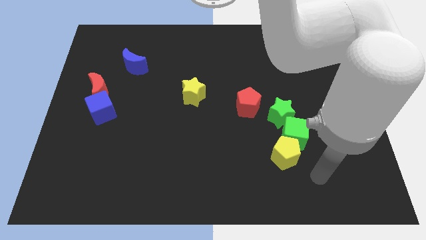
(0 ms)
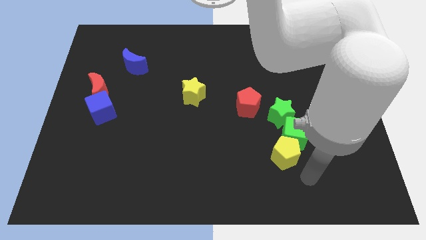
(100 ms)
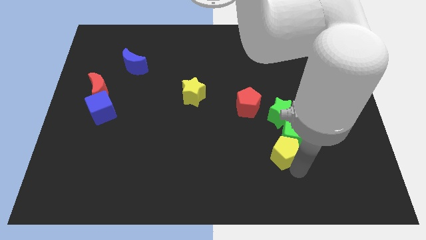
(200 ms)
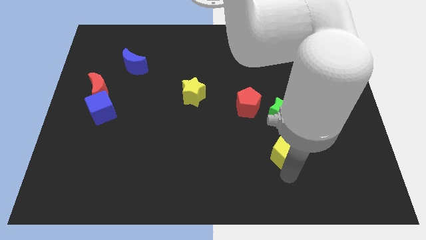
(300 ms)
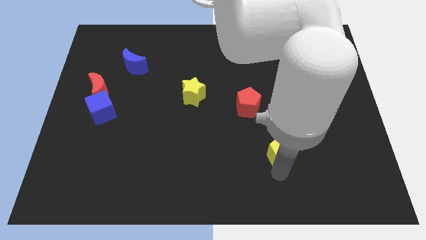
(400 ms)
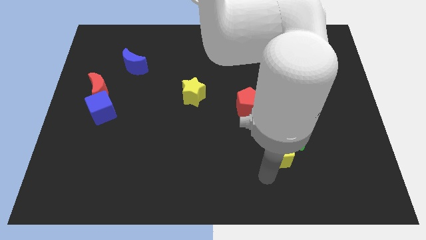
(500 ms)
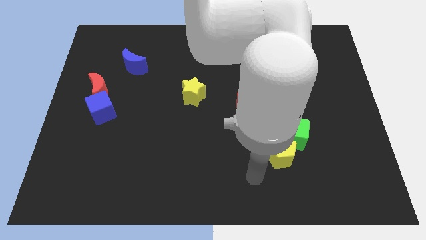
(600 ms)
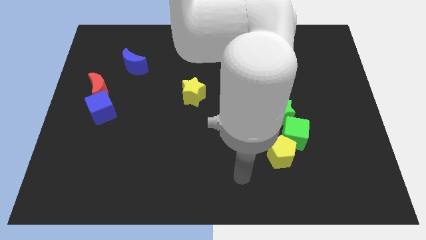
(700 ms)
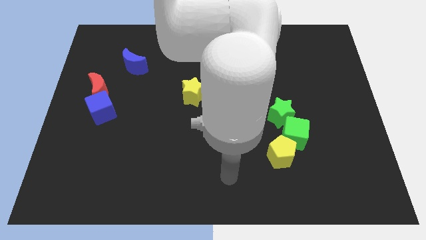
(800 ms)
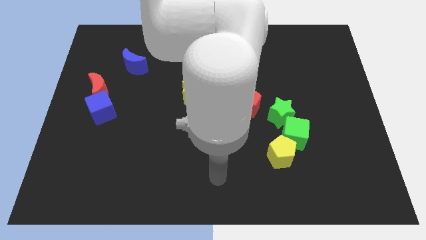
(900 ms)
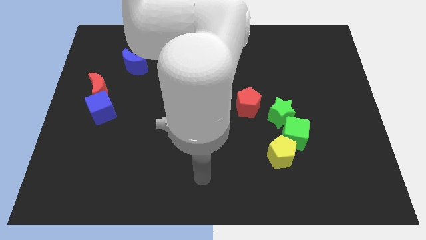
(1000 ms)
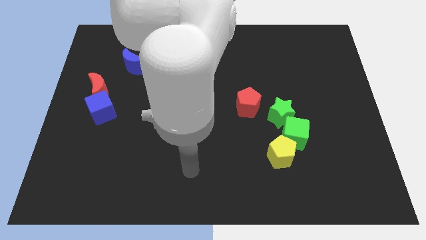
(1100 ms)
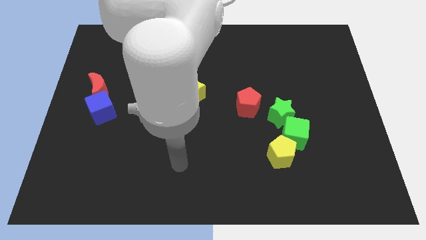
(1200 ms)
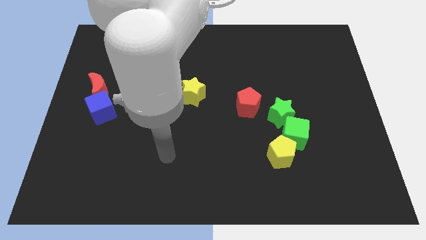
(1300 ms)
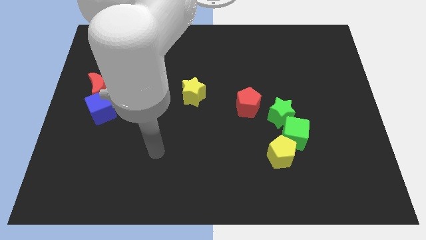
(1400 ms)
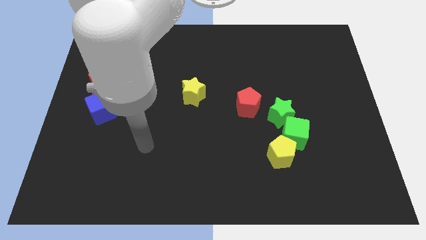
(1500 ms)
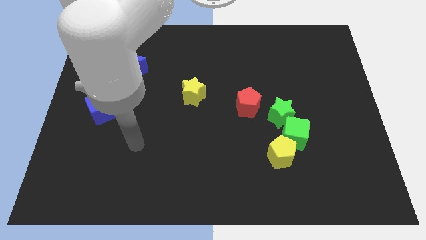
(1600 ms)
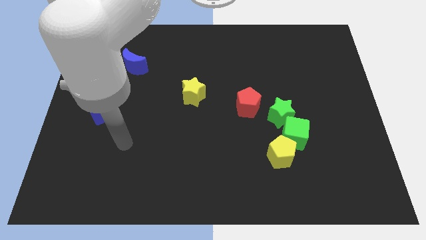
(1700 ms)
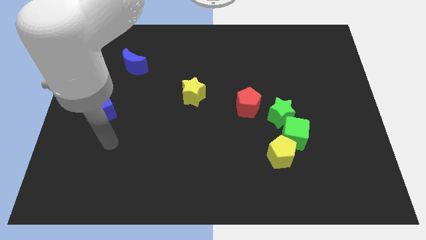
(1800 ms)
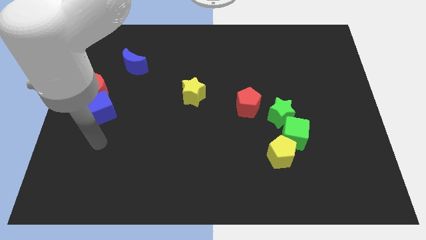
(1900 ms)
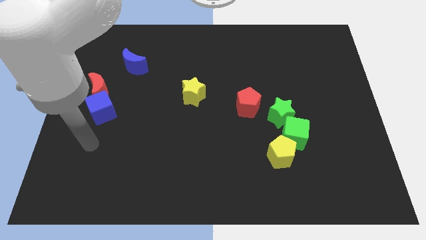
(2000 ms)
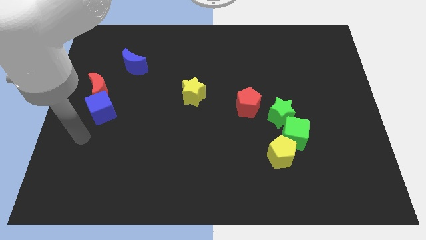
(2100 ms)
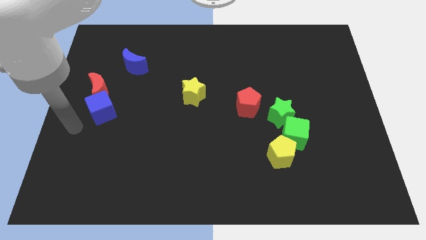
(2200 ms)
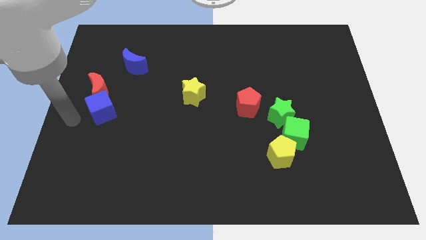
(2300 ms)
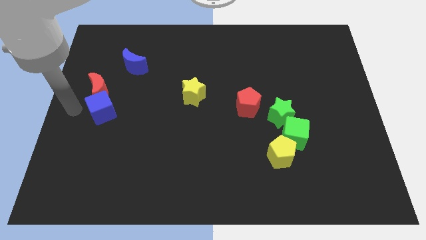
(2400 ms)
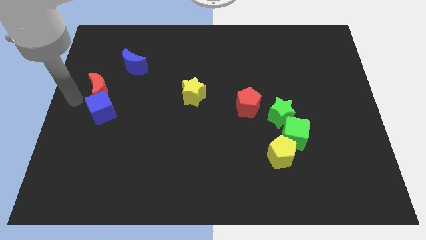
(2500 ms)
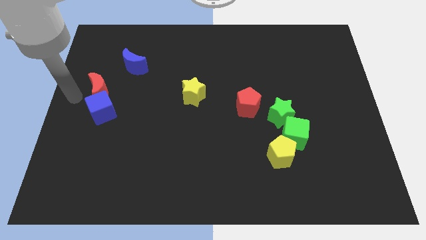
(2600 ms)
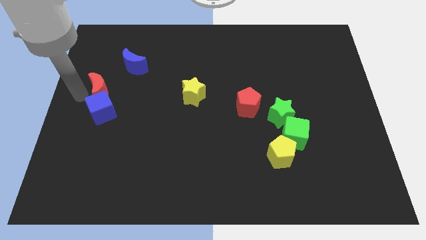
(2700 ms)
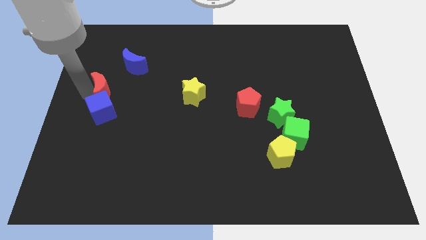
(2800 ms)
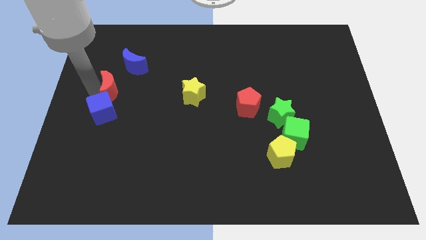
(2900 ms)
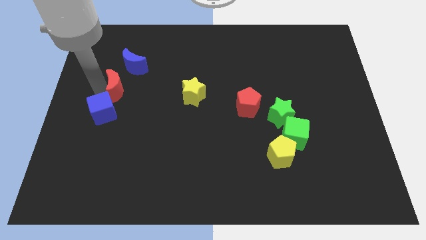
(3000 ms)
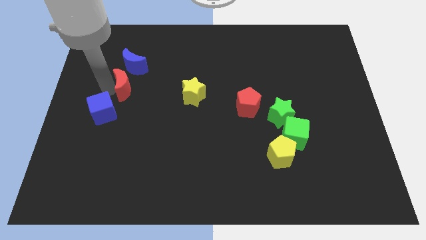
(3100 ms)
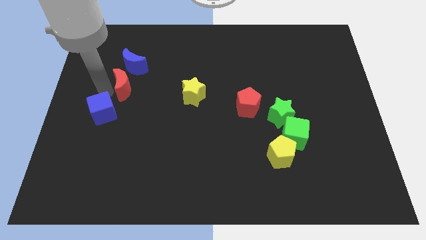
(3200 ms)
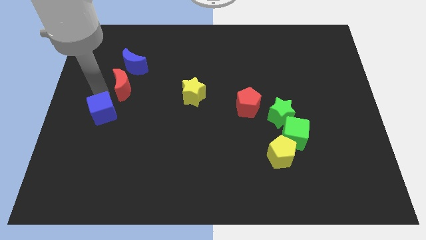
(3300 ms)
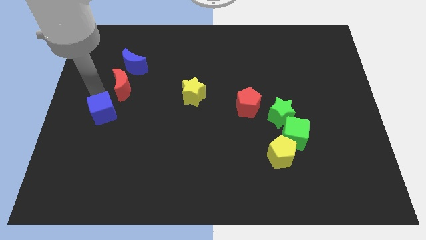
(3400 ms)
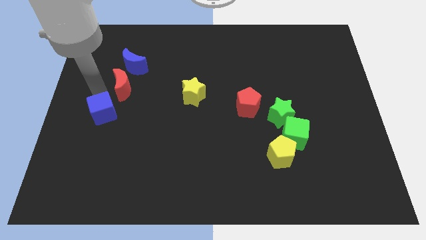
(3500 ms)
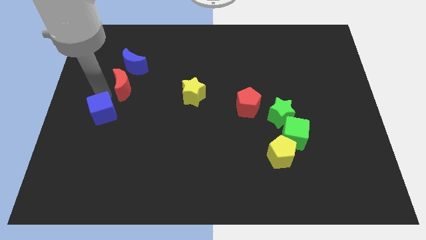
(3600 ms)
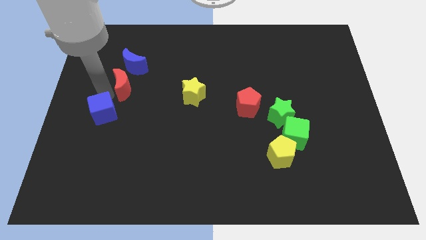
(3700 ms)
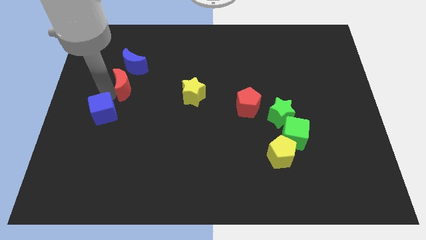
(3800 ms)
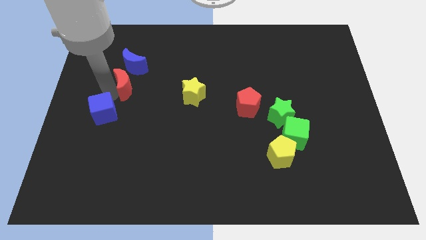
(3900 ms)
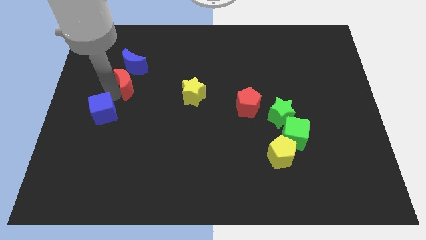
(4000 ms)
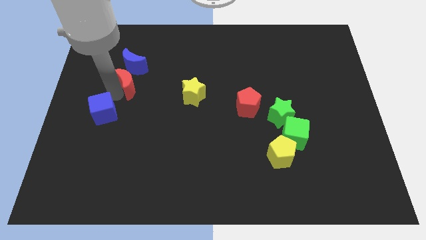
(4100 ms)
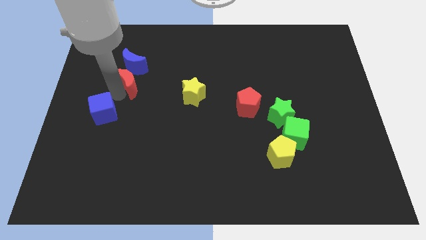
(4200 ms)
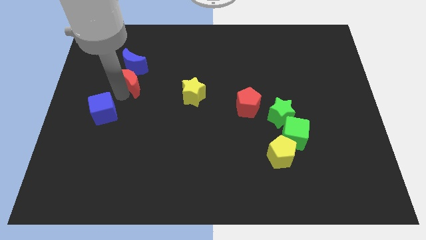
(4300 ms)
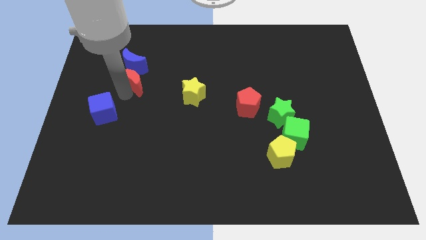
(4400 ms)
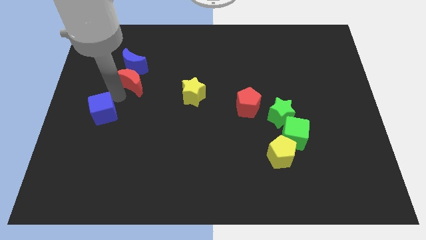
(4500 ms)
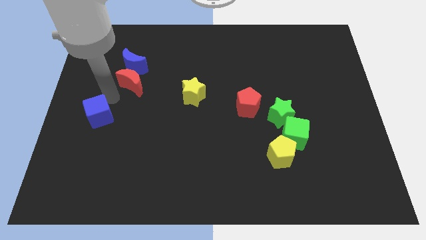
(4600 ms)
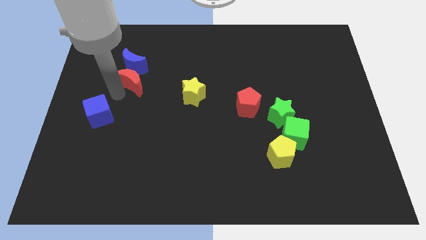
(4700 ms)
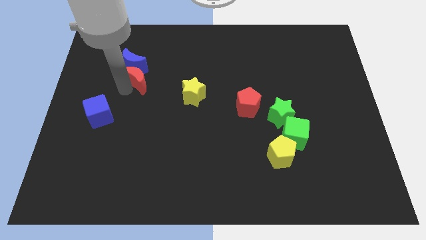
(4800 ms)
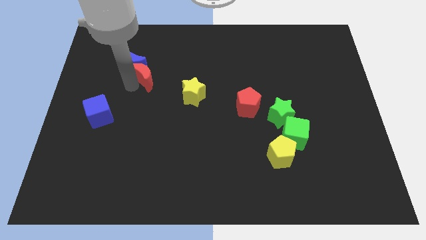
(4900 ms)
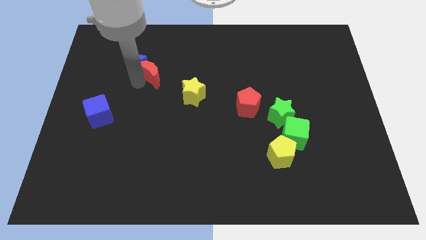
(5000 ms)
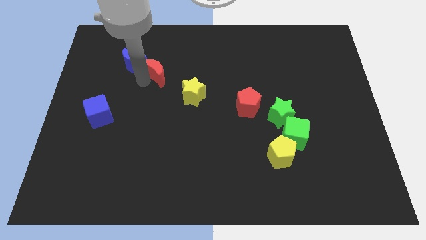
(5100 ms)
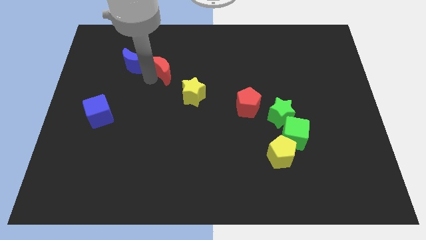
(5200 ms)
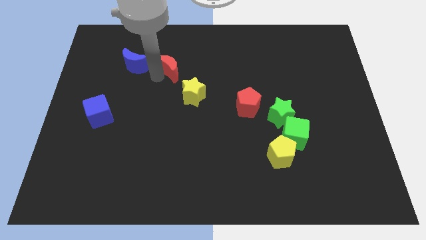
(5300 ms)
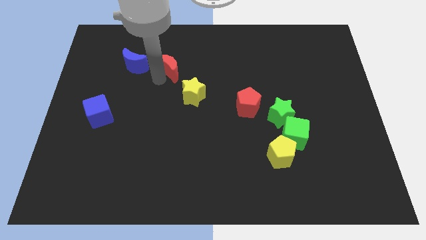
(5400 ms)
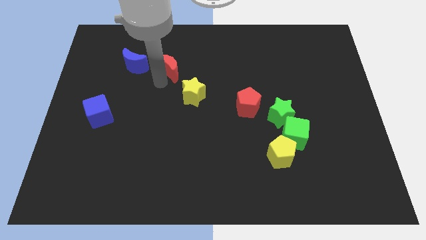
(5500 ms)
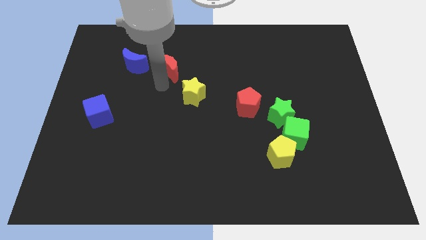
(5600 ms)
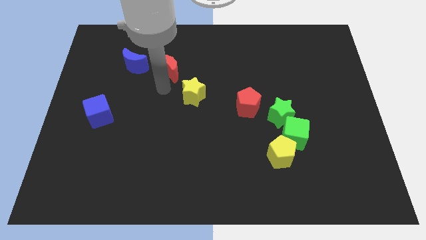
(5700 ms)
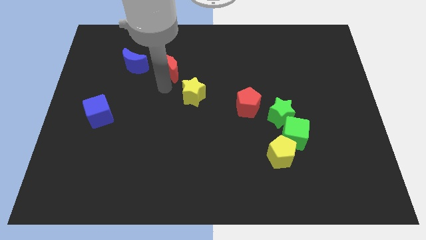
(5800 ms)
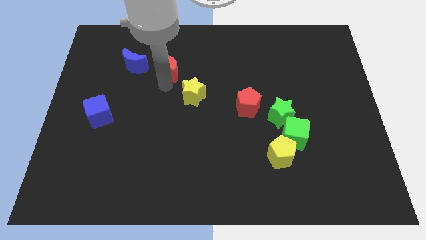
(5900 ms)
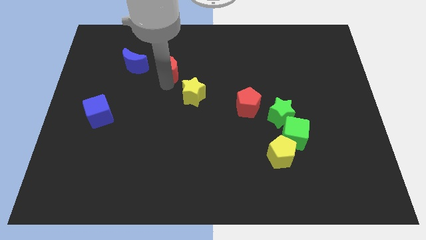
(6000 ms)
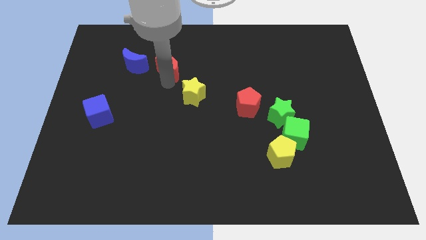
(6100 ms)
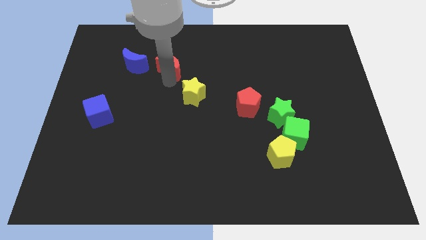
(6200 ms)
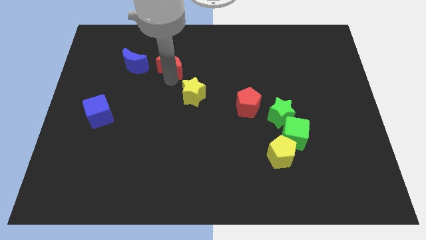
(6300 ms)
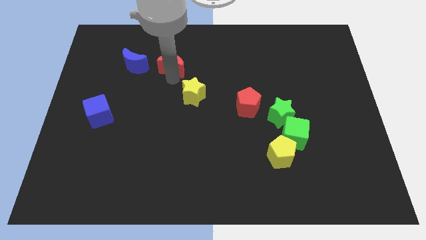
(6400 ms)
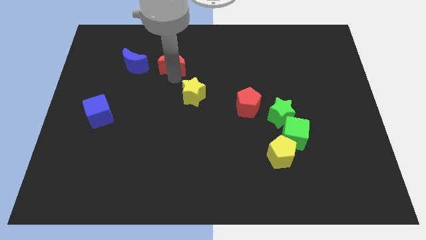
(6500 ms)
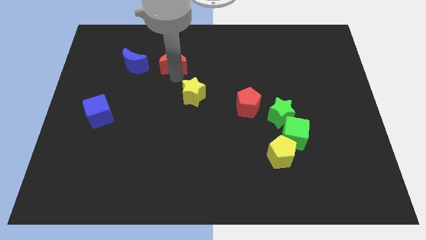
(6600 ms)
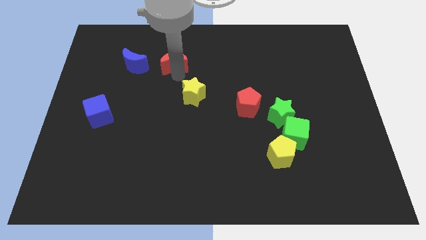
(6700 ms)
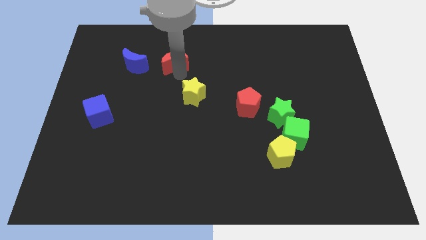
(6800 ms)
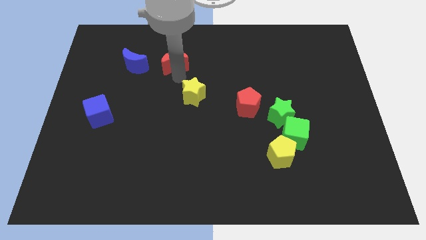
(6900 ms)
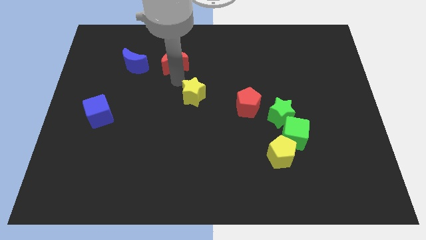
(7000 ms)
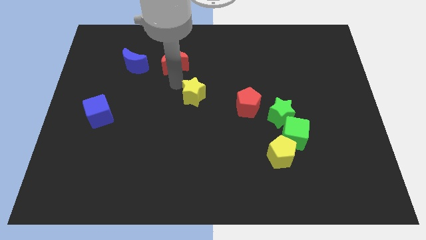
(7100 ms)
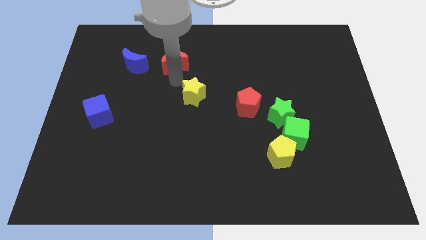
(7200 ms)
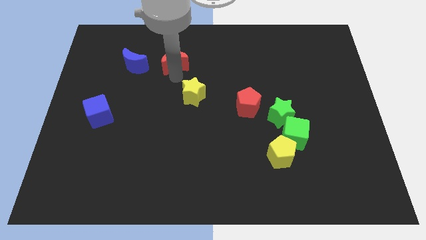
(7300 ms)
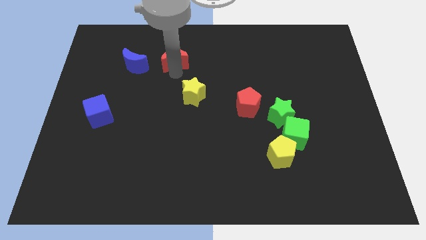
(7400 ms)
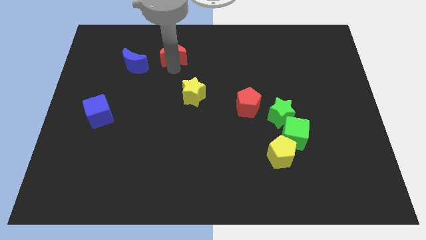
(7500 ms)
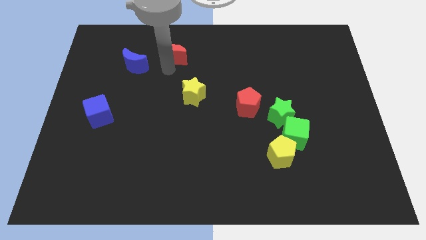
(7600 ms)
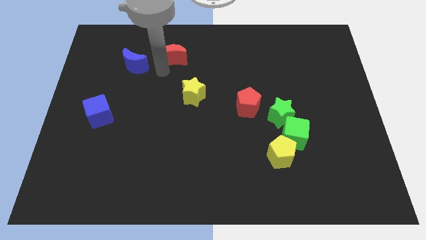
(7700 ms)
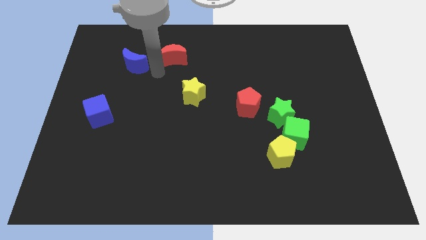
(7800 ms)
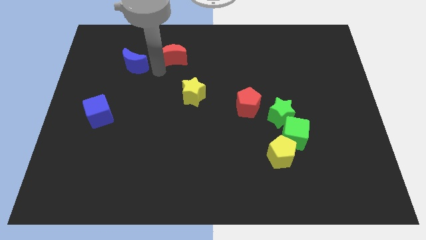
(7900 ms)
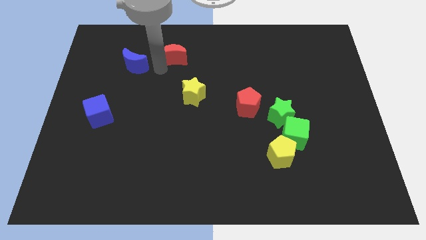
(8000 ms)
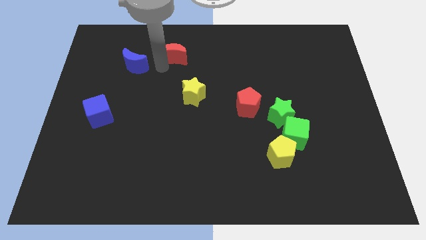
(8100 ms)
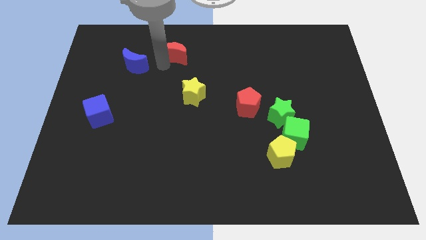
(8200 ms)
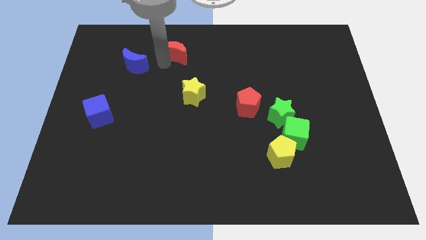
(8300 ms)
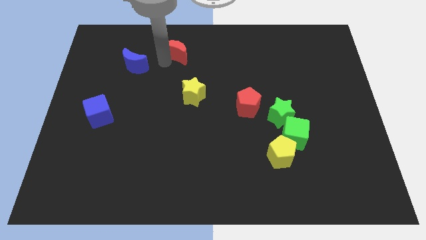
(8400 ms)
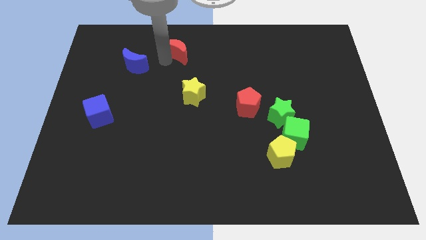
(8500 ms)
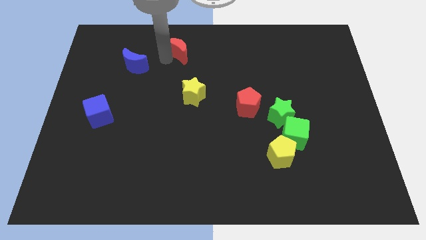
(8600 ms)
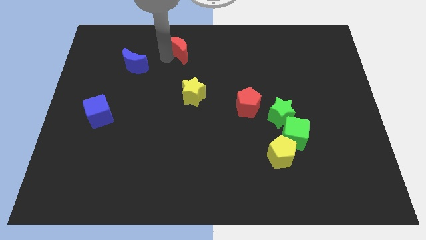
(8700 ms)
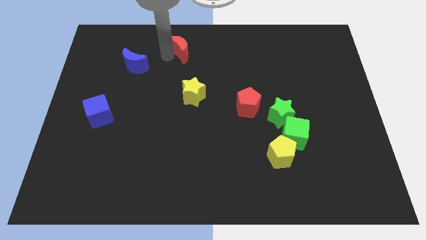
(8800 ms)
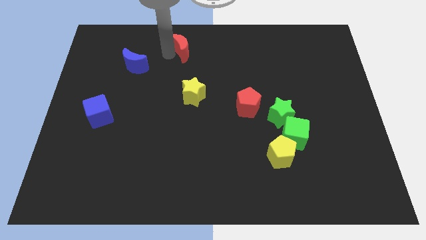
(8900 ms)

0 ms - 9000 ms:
push the red moon to the towards your base
